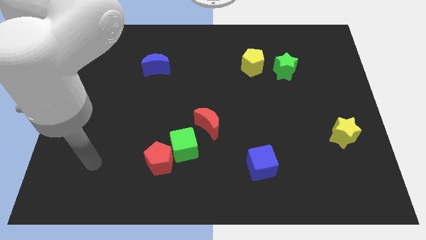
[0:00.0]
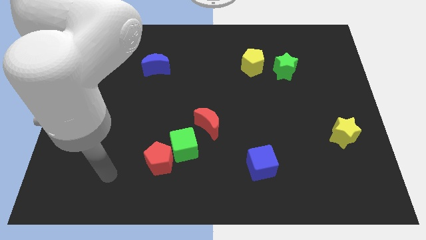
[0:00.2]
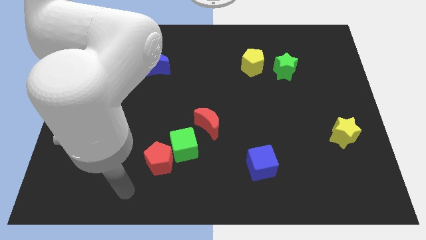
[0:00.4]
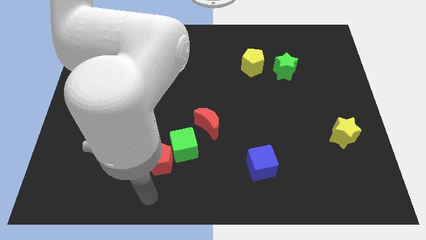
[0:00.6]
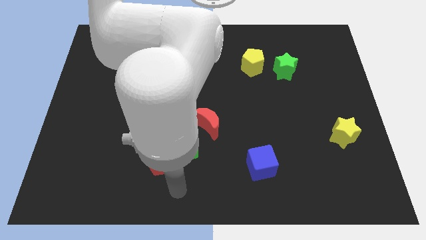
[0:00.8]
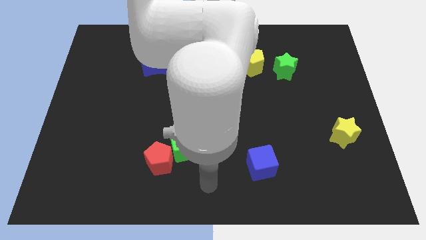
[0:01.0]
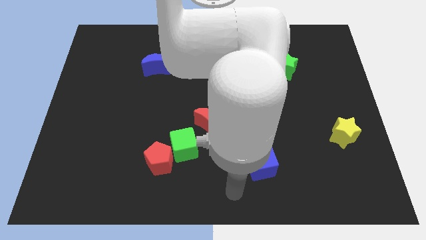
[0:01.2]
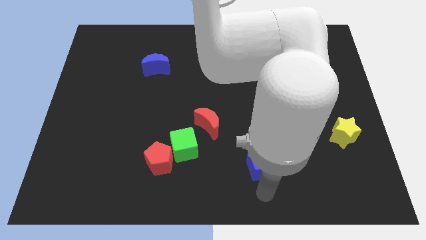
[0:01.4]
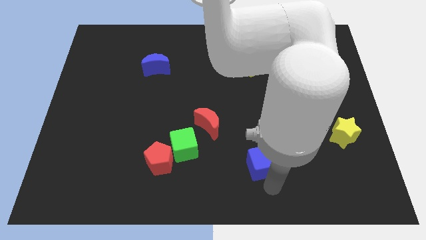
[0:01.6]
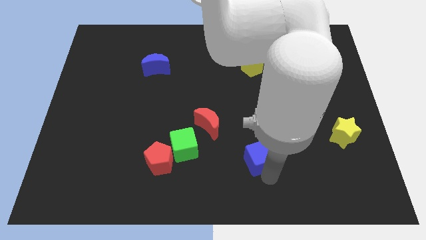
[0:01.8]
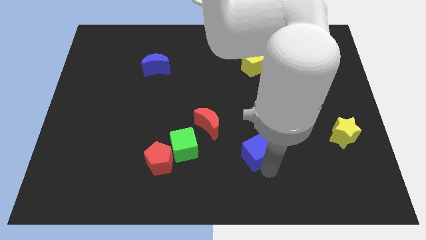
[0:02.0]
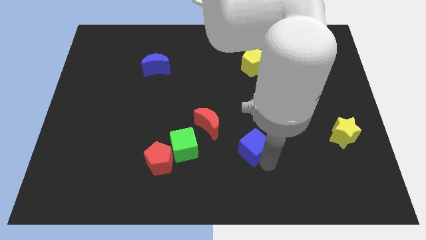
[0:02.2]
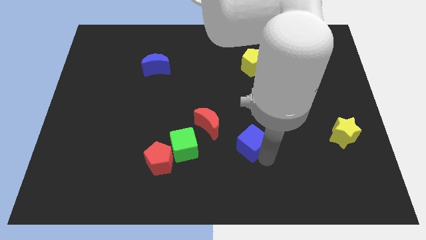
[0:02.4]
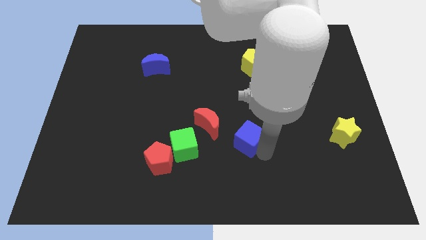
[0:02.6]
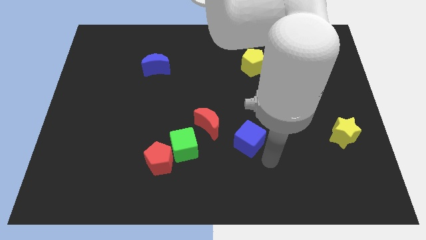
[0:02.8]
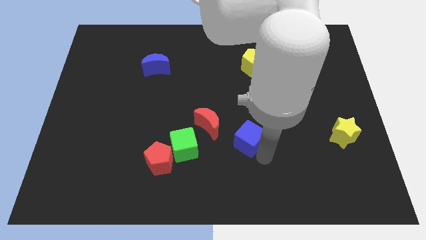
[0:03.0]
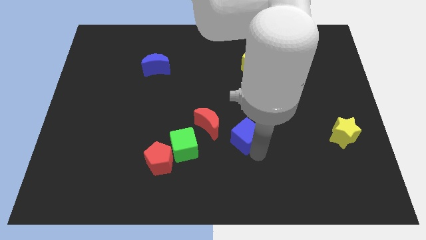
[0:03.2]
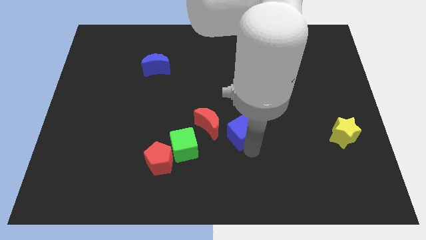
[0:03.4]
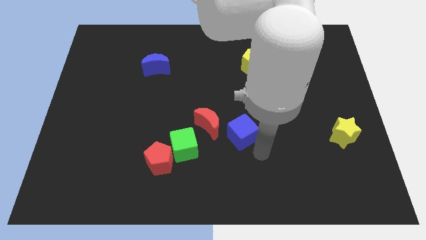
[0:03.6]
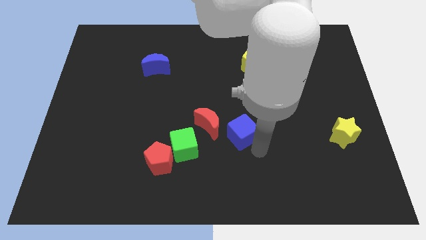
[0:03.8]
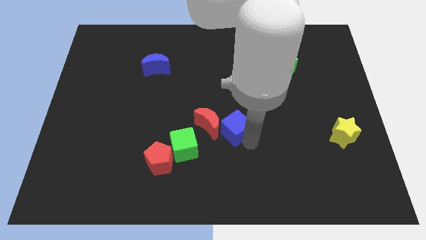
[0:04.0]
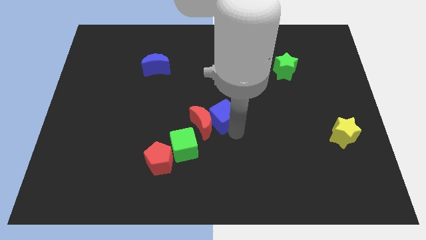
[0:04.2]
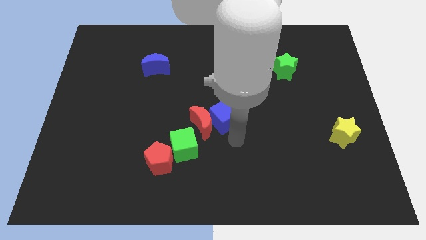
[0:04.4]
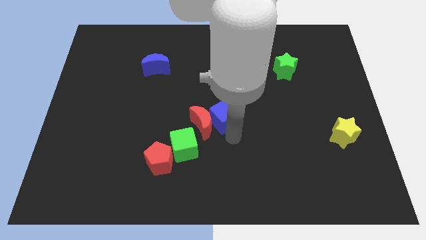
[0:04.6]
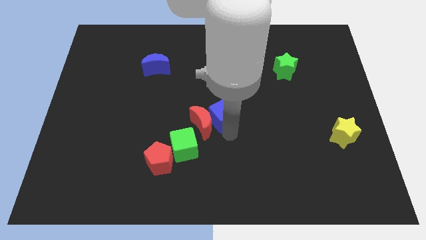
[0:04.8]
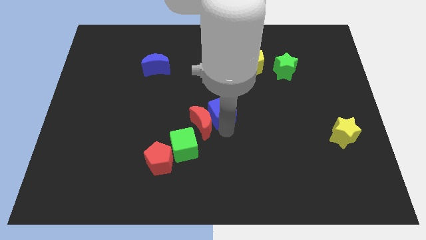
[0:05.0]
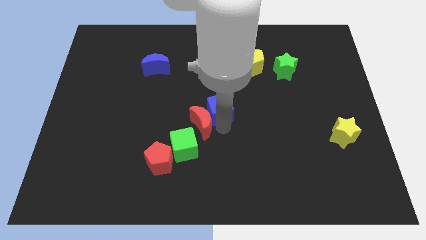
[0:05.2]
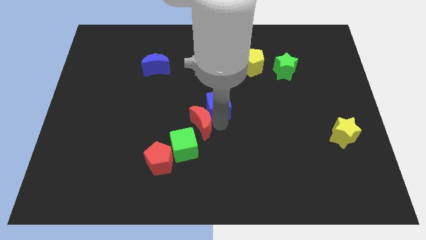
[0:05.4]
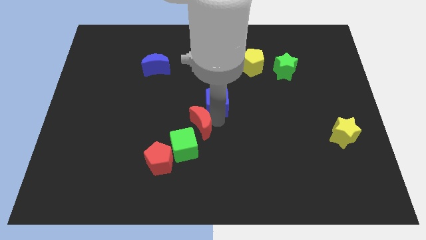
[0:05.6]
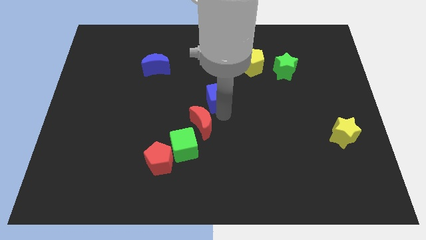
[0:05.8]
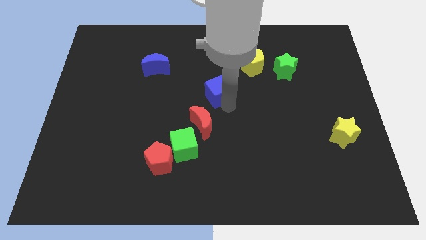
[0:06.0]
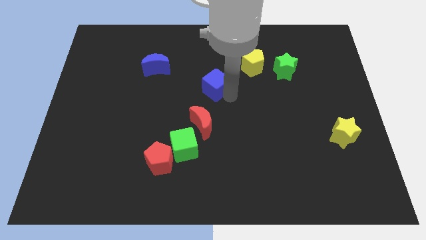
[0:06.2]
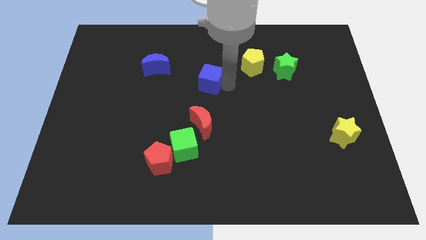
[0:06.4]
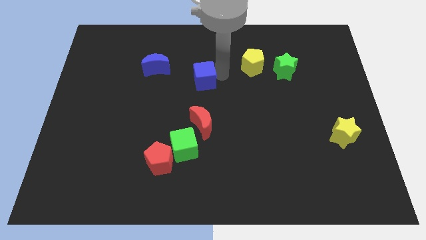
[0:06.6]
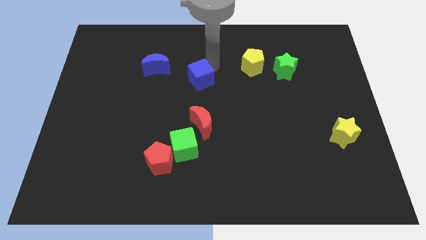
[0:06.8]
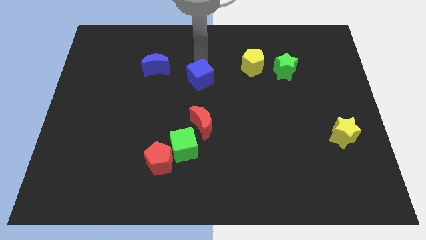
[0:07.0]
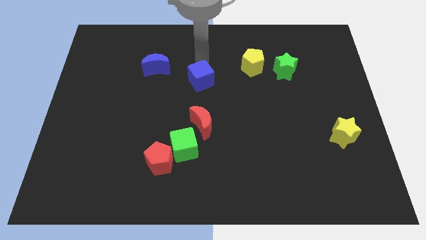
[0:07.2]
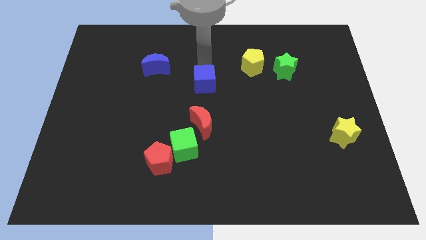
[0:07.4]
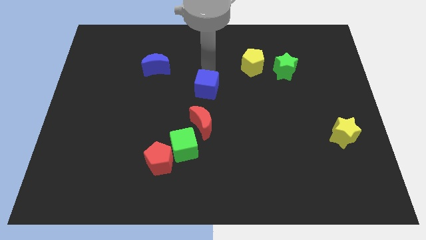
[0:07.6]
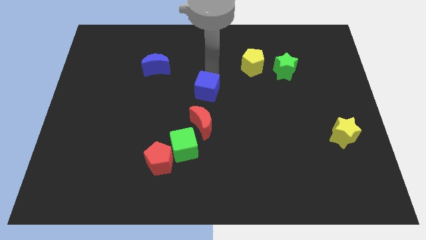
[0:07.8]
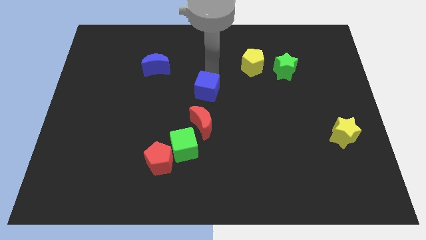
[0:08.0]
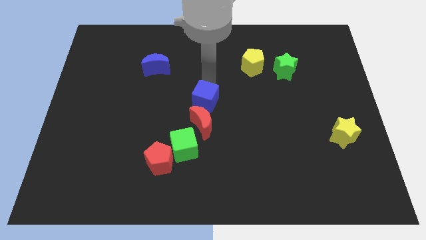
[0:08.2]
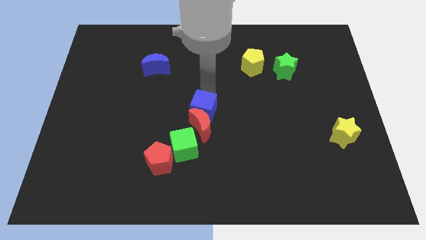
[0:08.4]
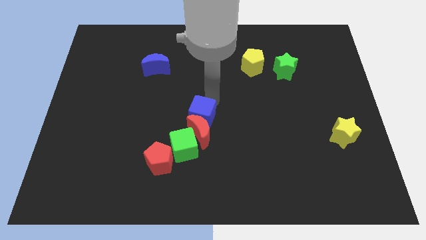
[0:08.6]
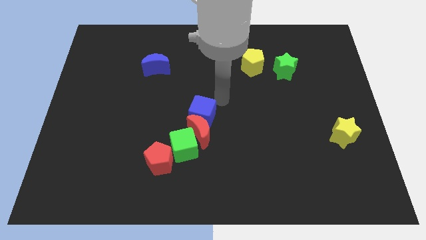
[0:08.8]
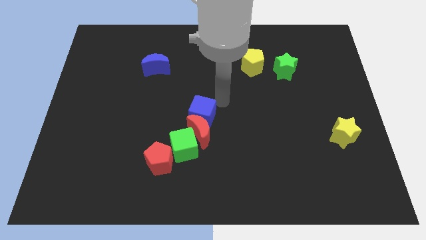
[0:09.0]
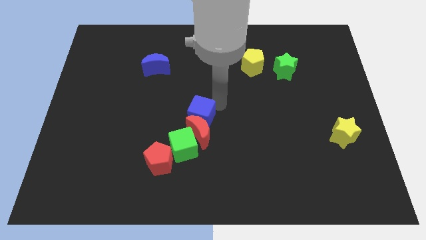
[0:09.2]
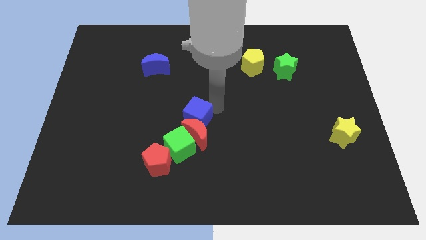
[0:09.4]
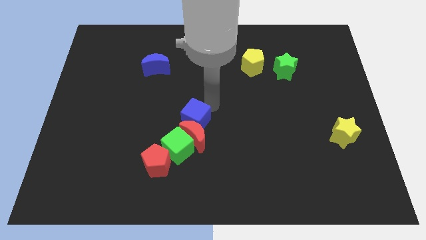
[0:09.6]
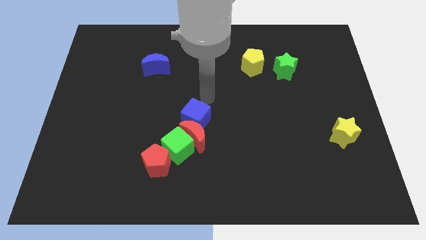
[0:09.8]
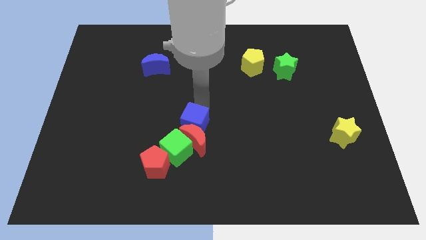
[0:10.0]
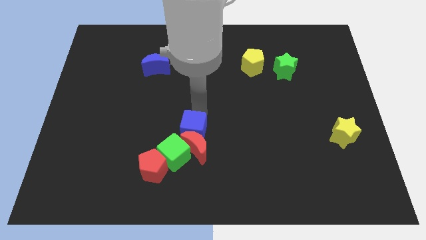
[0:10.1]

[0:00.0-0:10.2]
push the blue cube to the top right side of the red pentagon

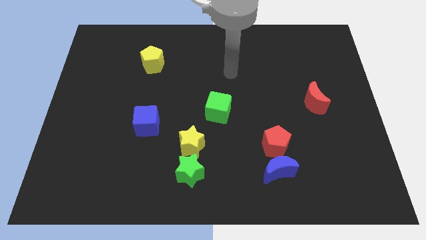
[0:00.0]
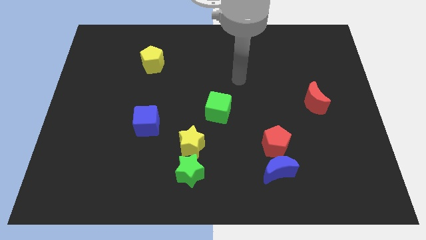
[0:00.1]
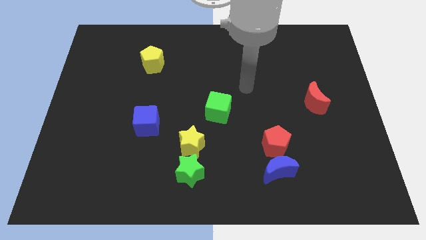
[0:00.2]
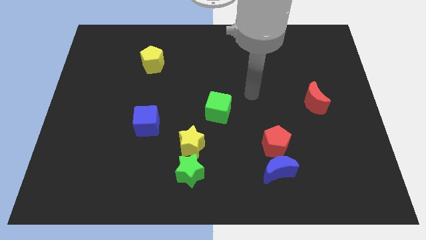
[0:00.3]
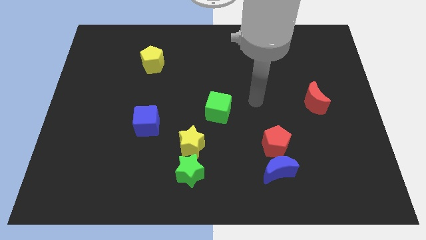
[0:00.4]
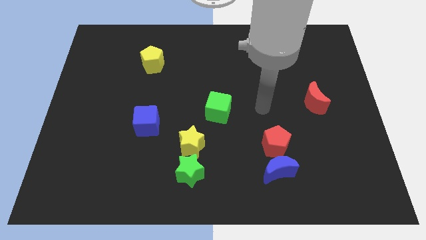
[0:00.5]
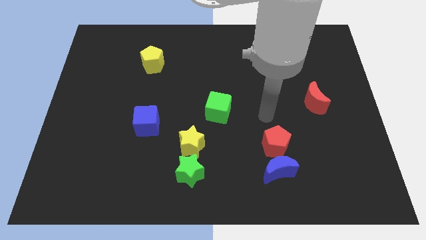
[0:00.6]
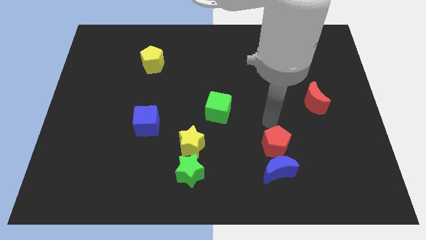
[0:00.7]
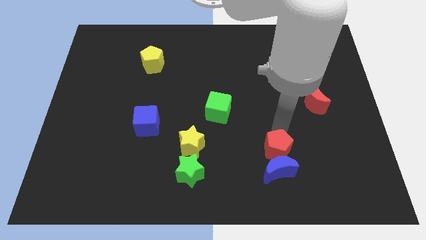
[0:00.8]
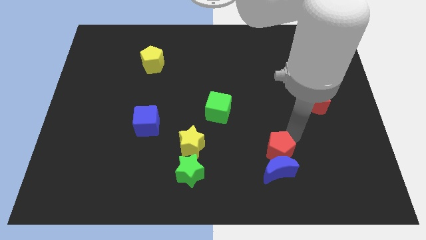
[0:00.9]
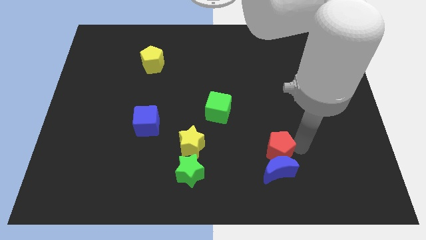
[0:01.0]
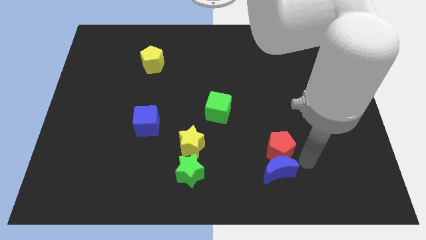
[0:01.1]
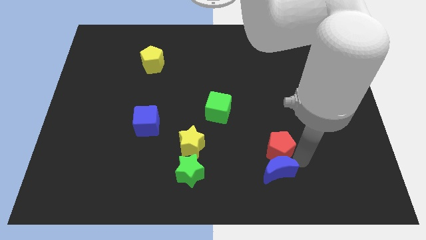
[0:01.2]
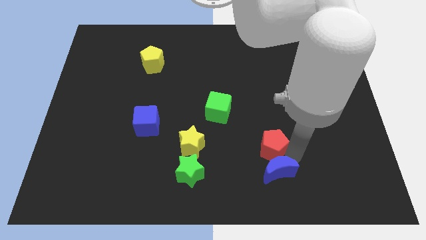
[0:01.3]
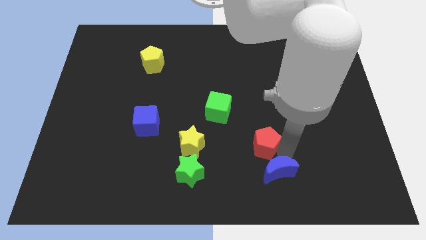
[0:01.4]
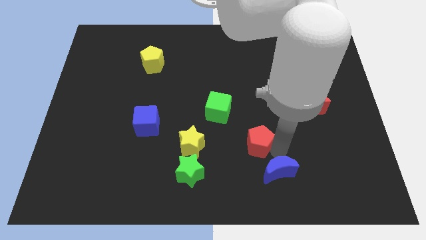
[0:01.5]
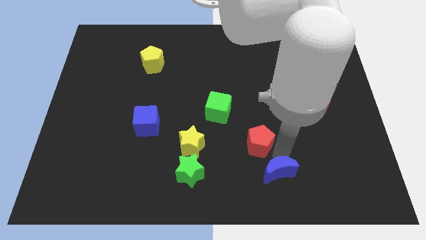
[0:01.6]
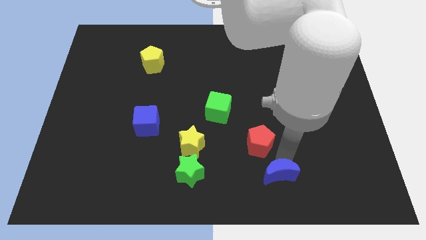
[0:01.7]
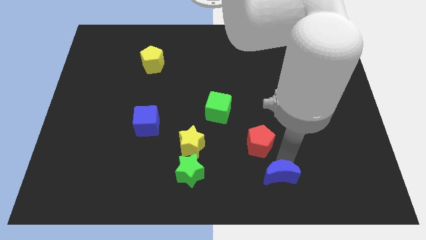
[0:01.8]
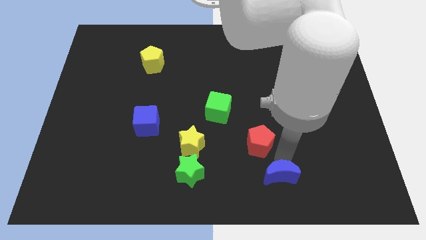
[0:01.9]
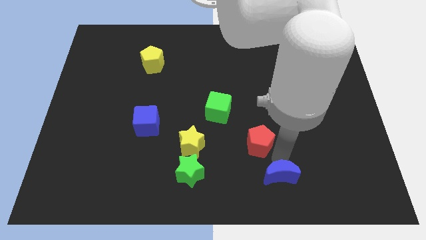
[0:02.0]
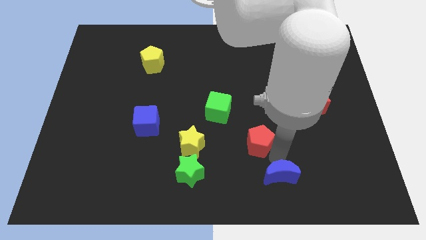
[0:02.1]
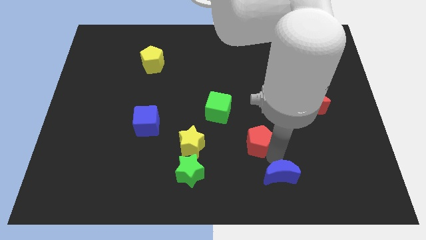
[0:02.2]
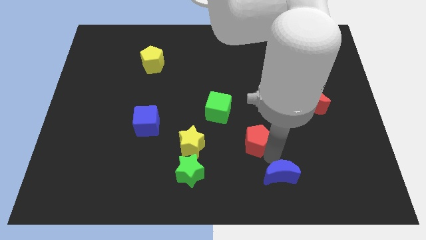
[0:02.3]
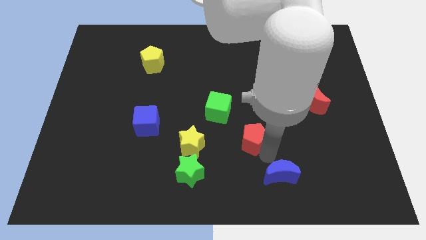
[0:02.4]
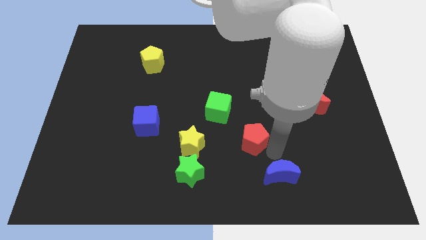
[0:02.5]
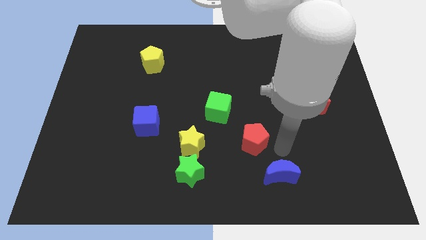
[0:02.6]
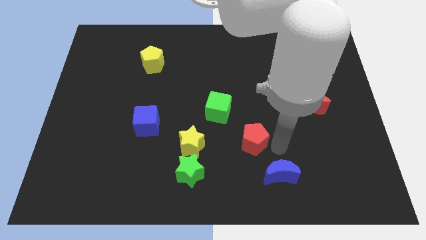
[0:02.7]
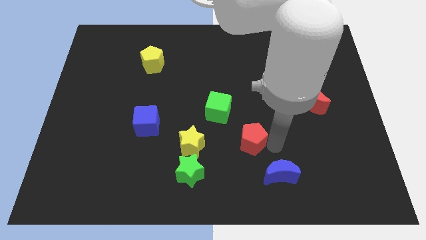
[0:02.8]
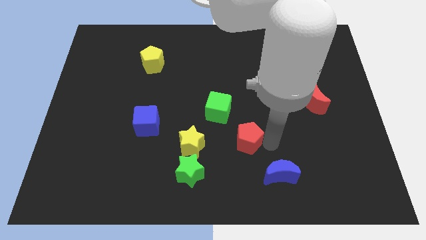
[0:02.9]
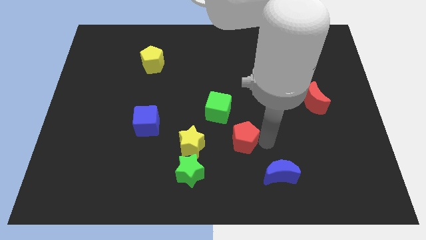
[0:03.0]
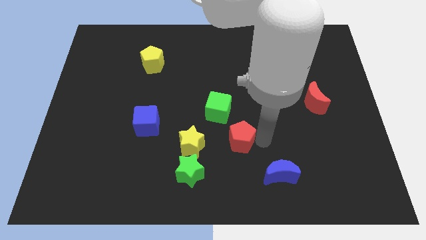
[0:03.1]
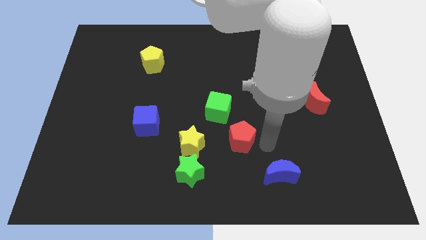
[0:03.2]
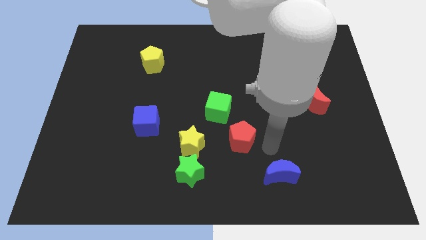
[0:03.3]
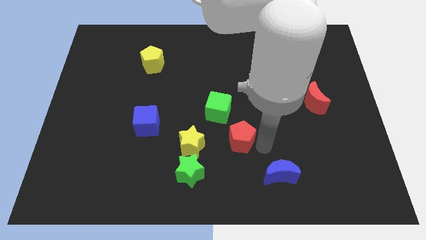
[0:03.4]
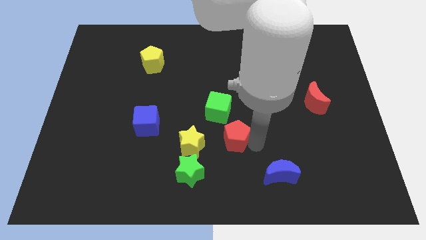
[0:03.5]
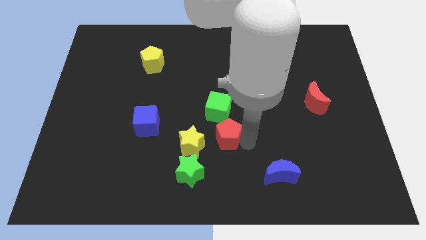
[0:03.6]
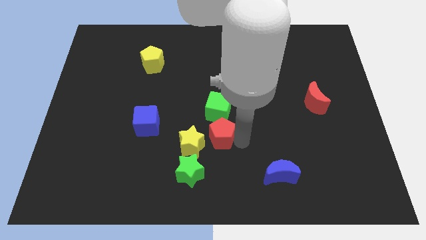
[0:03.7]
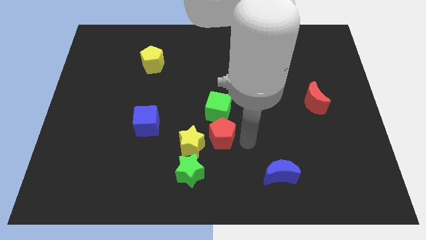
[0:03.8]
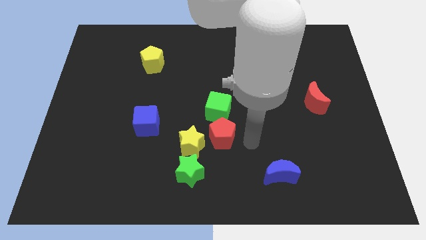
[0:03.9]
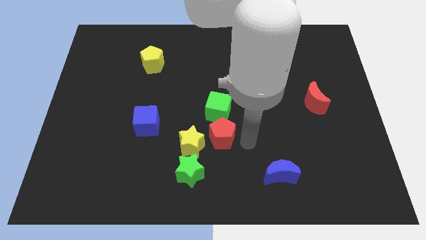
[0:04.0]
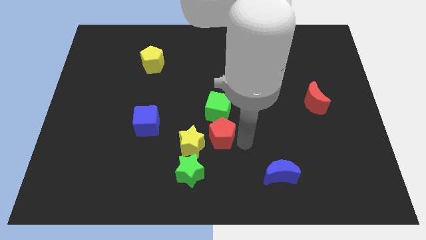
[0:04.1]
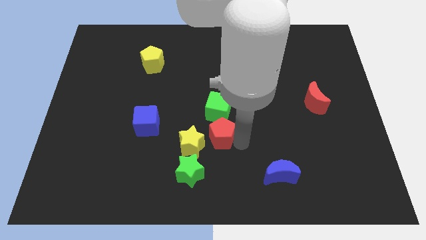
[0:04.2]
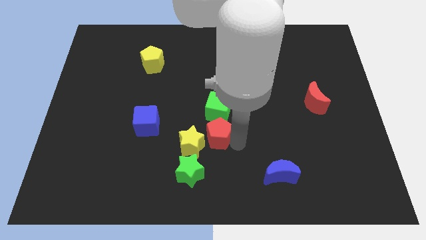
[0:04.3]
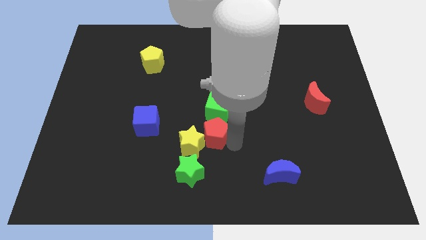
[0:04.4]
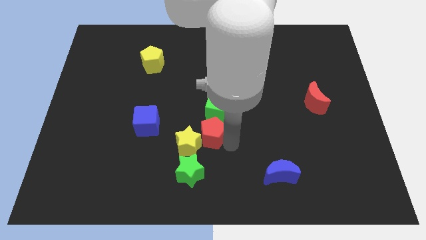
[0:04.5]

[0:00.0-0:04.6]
move the red pentagon above the green star
